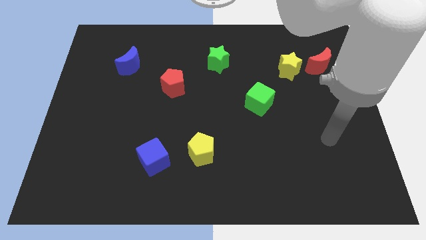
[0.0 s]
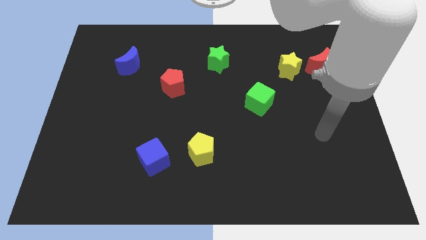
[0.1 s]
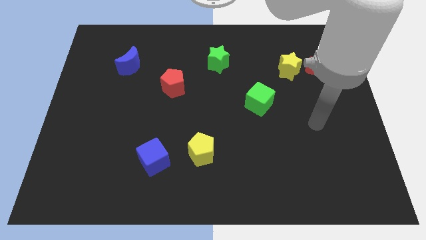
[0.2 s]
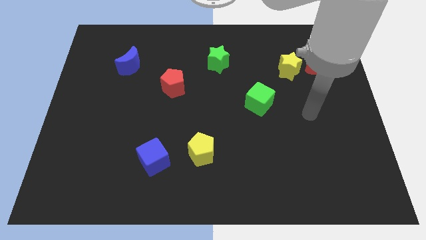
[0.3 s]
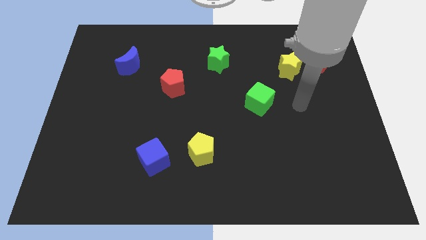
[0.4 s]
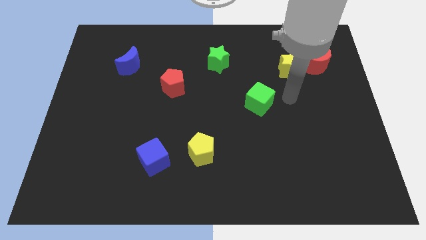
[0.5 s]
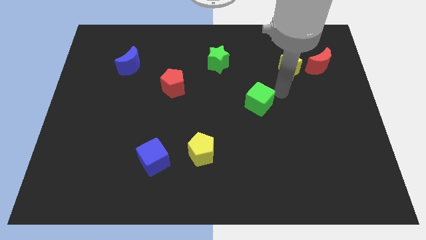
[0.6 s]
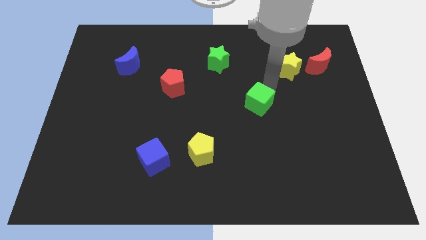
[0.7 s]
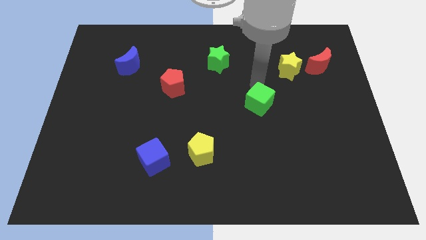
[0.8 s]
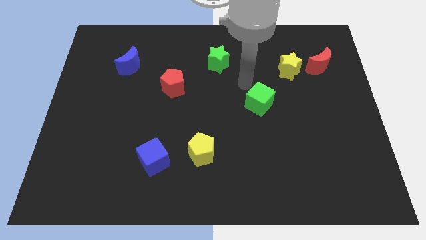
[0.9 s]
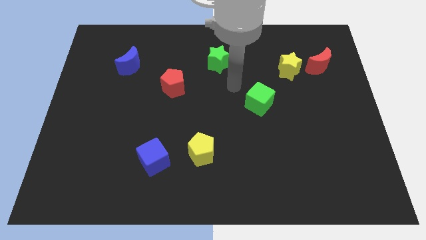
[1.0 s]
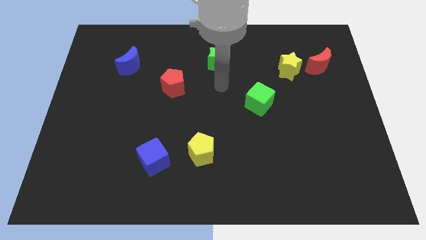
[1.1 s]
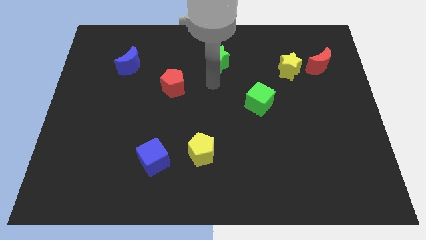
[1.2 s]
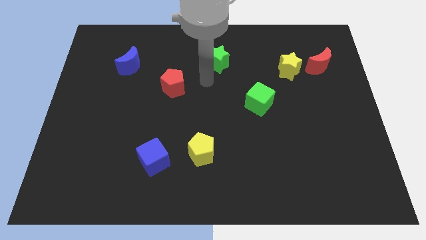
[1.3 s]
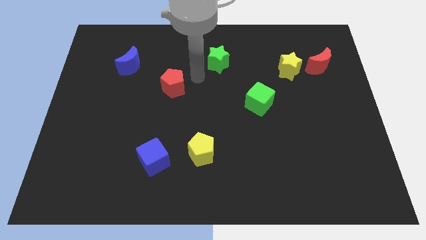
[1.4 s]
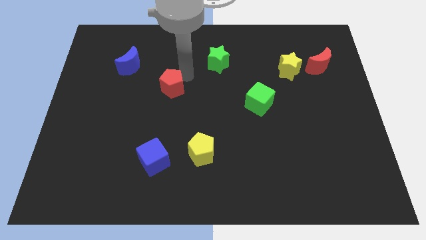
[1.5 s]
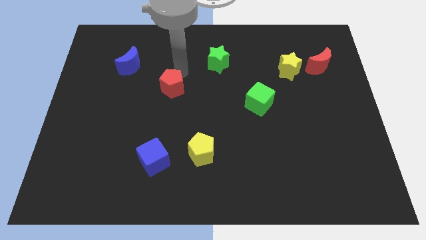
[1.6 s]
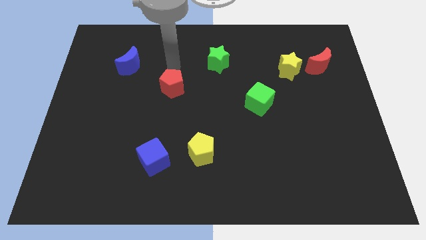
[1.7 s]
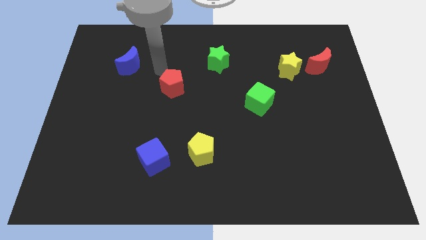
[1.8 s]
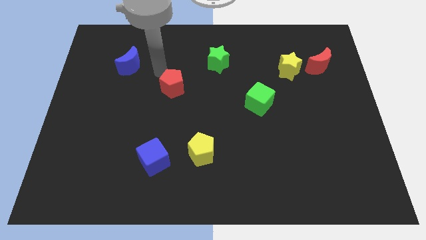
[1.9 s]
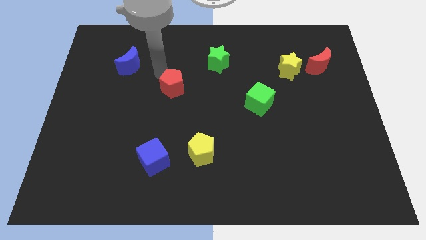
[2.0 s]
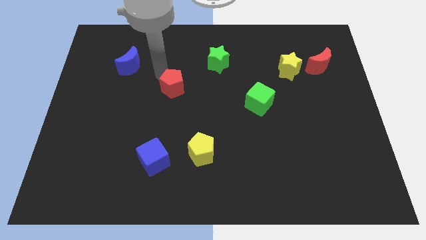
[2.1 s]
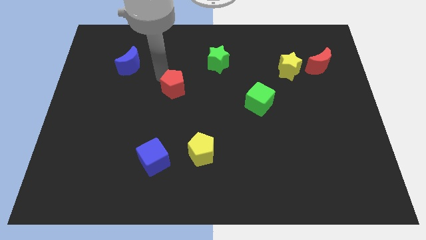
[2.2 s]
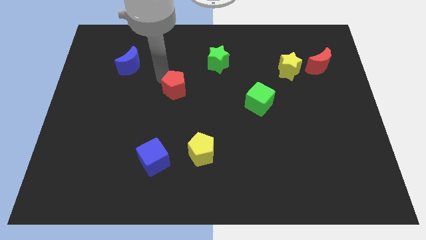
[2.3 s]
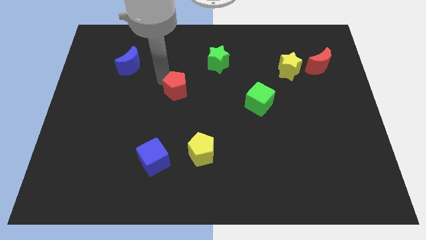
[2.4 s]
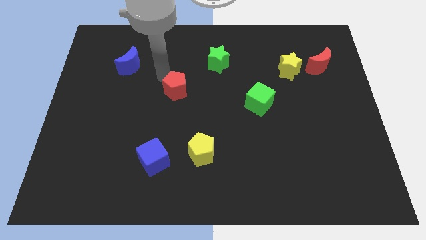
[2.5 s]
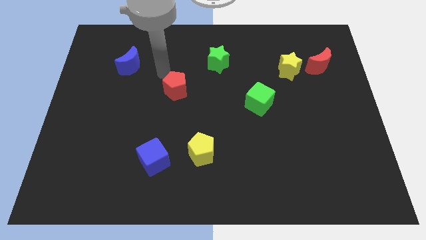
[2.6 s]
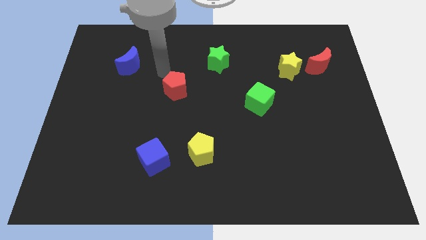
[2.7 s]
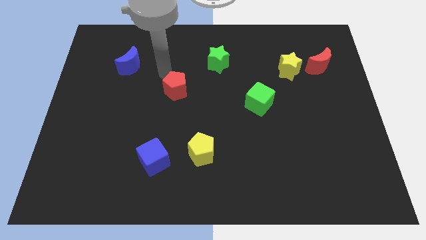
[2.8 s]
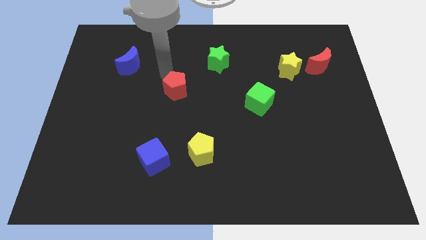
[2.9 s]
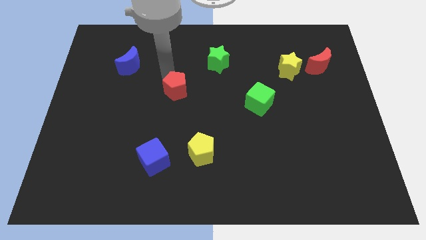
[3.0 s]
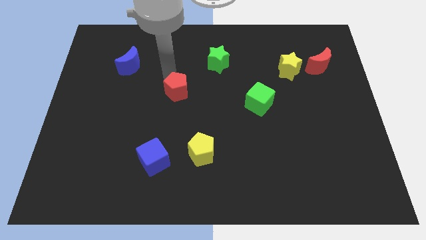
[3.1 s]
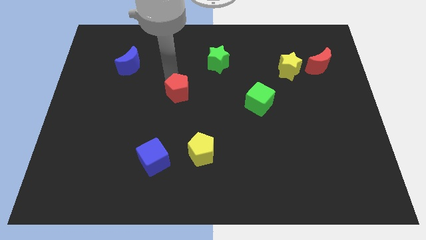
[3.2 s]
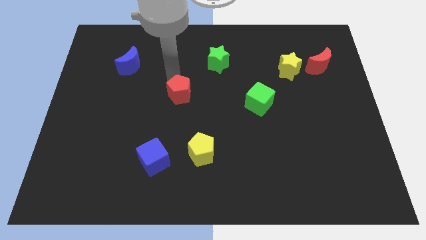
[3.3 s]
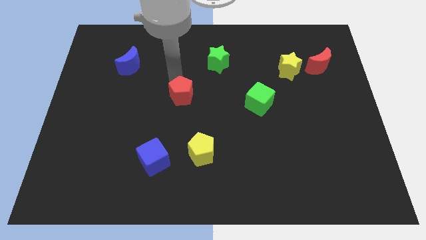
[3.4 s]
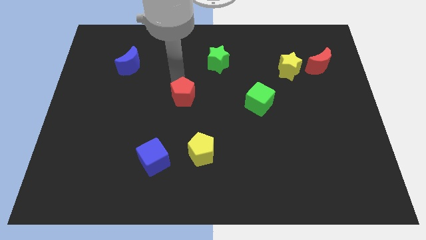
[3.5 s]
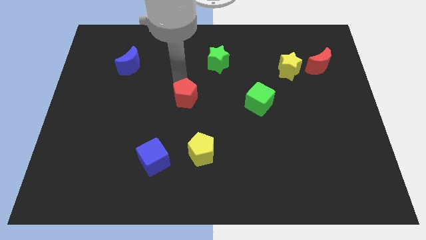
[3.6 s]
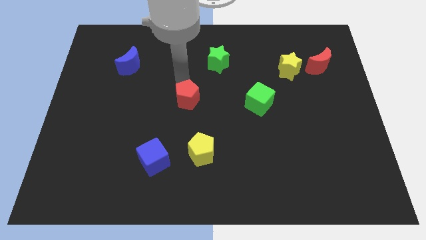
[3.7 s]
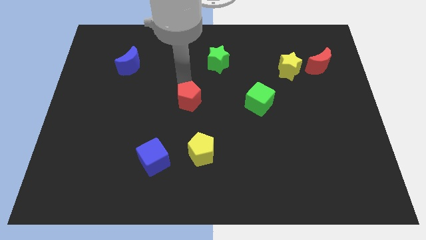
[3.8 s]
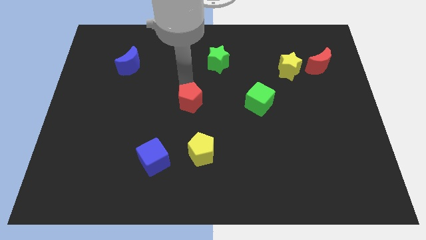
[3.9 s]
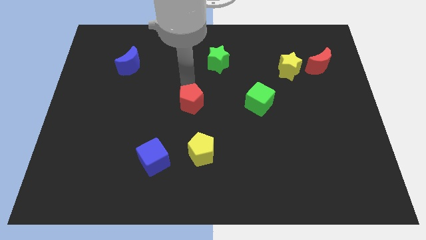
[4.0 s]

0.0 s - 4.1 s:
slightly push the red pentagon downwards and right

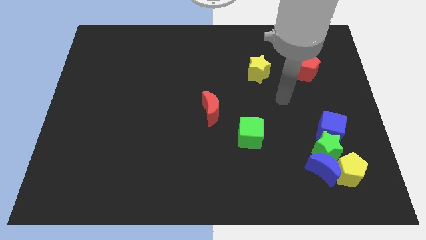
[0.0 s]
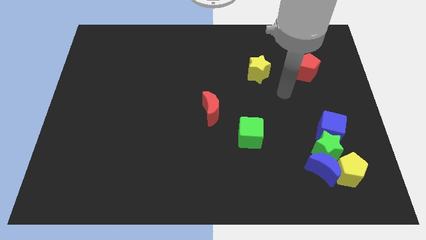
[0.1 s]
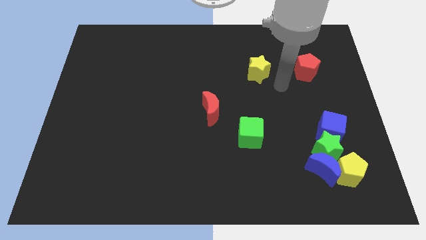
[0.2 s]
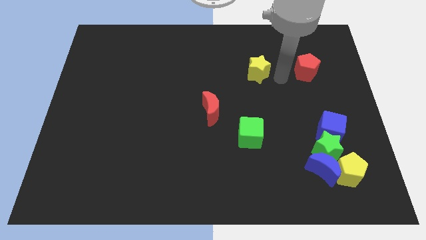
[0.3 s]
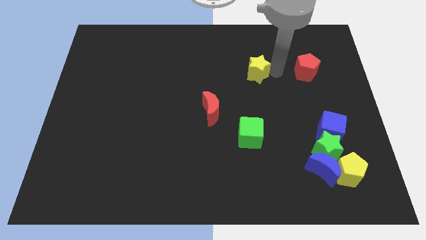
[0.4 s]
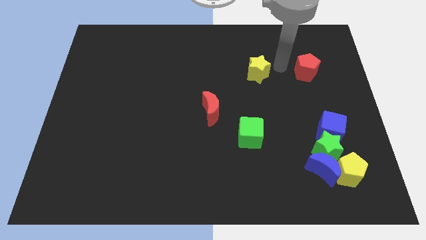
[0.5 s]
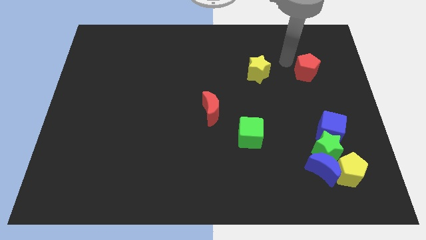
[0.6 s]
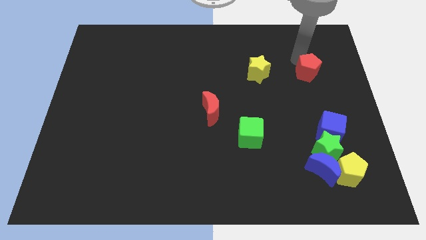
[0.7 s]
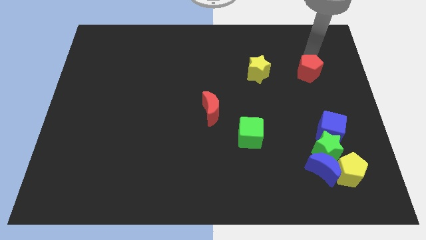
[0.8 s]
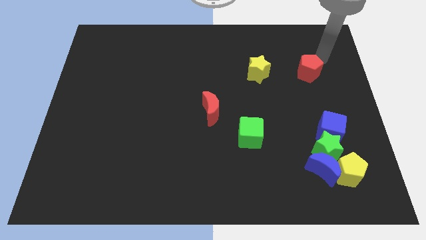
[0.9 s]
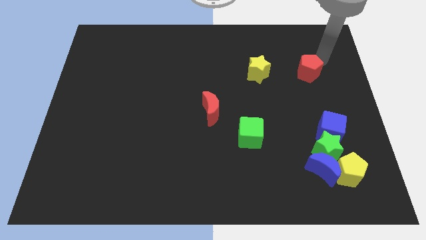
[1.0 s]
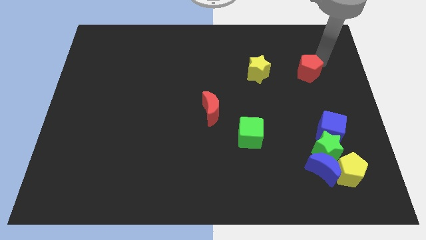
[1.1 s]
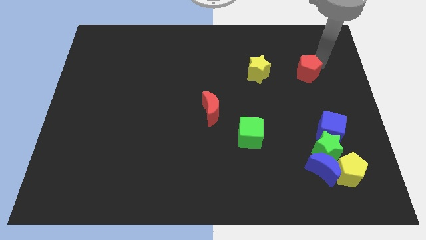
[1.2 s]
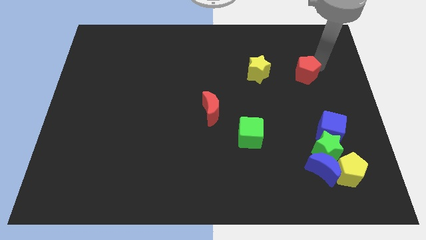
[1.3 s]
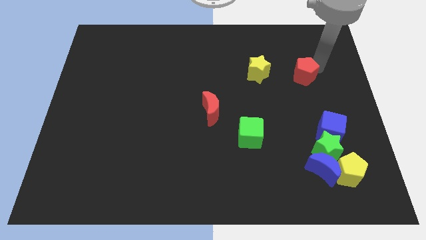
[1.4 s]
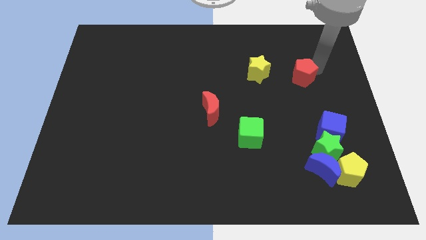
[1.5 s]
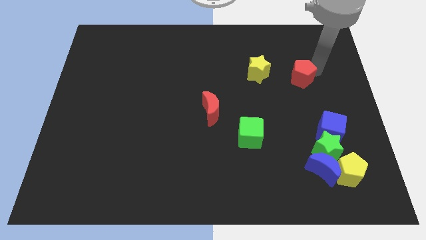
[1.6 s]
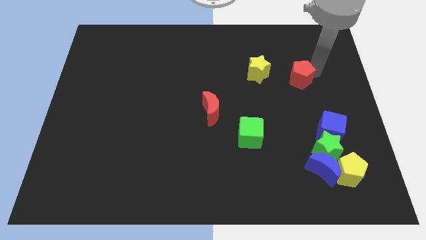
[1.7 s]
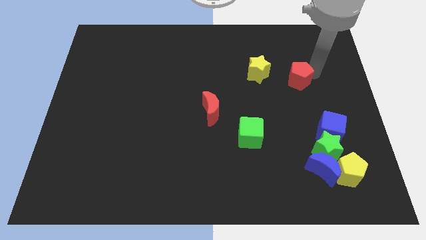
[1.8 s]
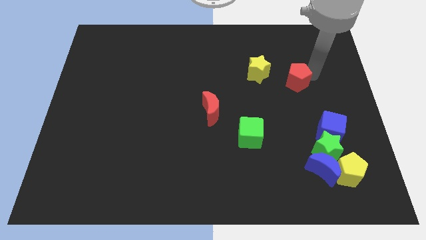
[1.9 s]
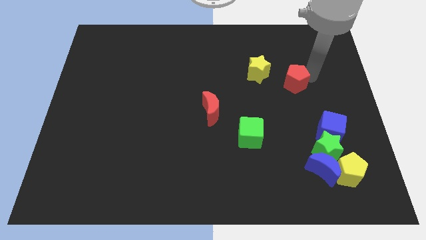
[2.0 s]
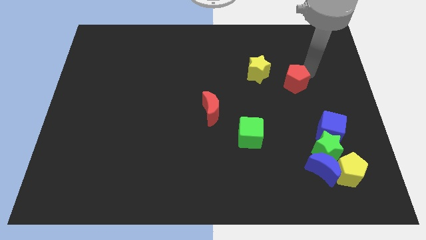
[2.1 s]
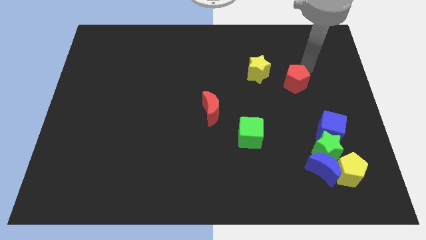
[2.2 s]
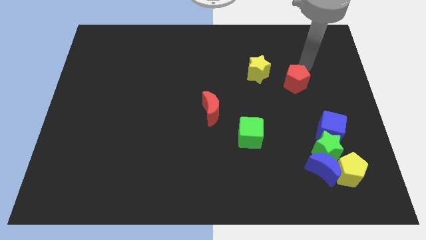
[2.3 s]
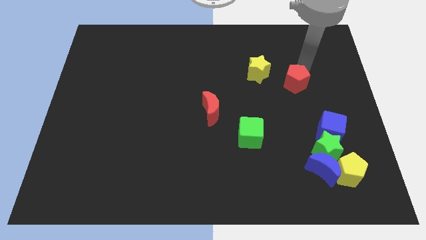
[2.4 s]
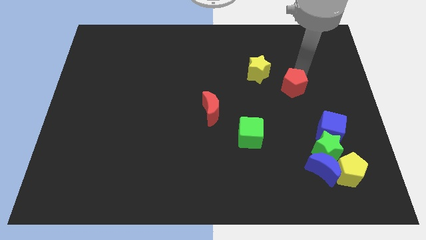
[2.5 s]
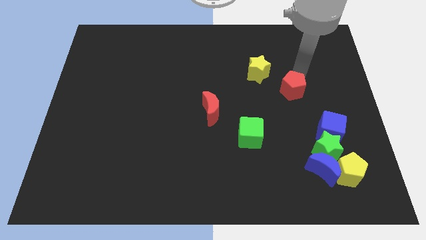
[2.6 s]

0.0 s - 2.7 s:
slide the red pentagon down and to the left somewhat

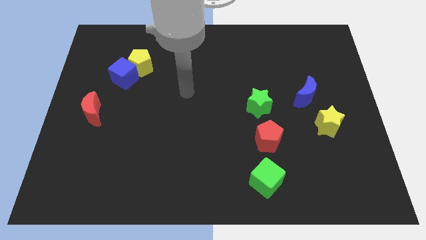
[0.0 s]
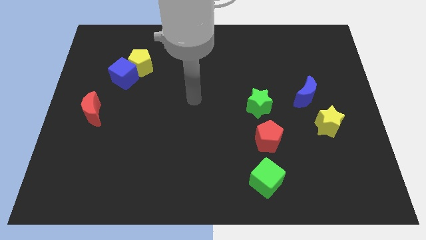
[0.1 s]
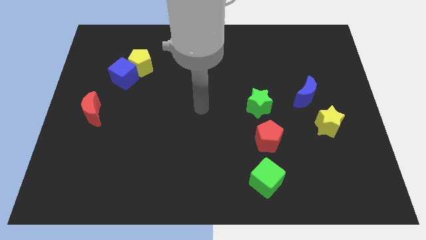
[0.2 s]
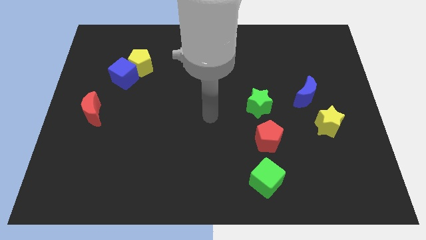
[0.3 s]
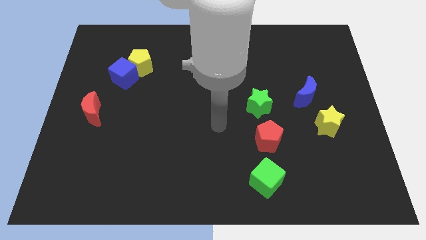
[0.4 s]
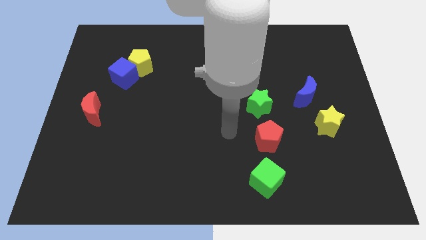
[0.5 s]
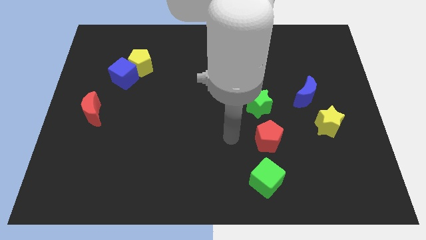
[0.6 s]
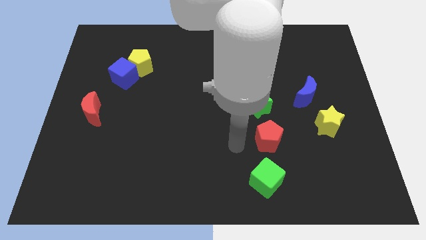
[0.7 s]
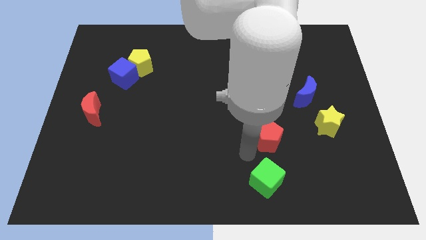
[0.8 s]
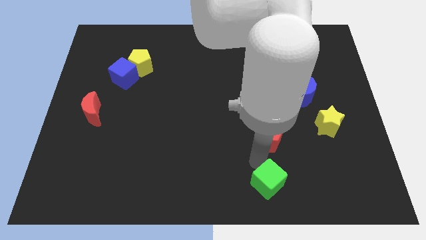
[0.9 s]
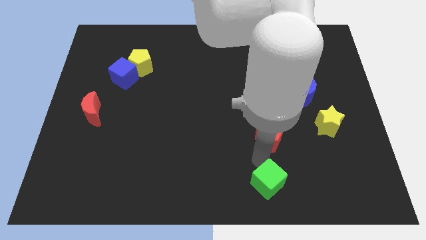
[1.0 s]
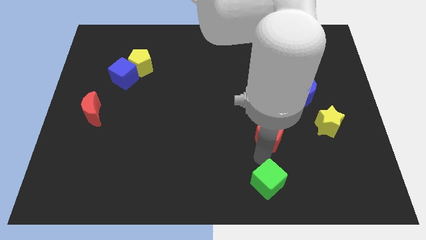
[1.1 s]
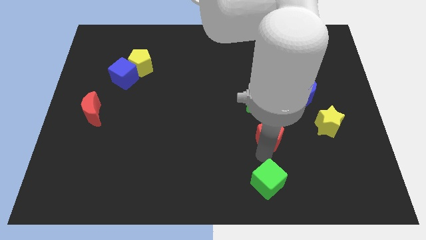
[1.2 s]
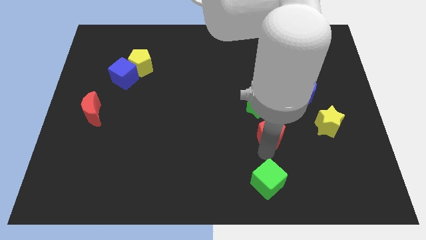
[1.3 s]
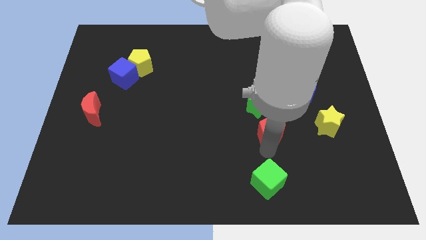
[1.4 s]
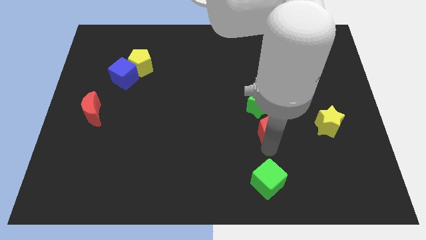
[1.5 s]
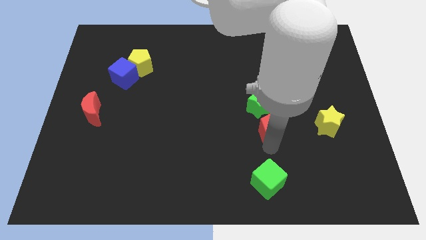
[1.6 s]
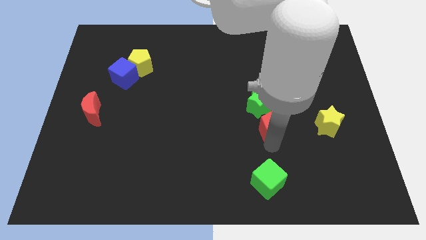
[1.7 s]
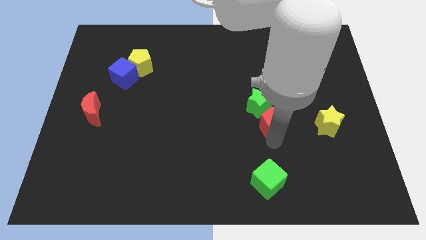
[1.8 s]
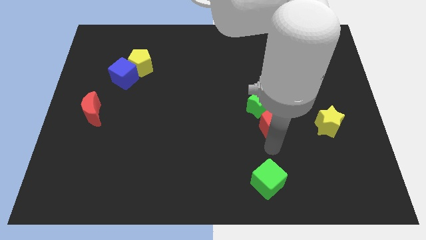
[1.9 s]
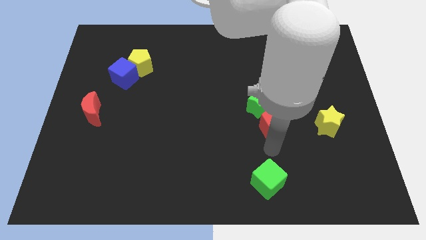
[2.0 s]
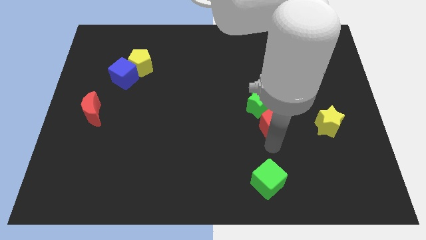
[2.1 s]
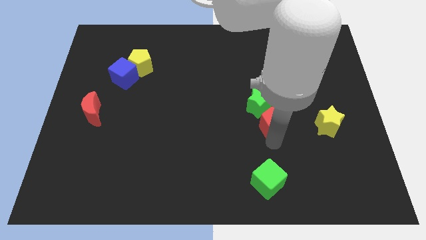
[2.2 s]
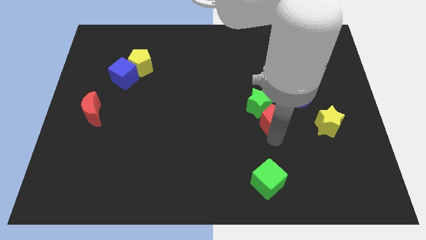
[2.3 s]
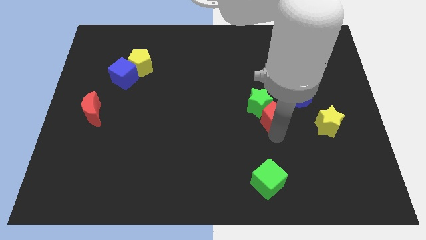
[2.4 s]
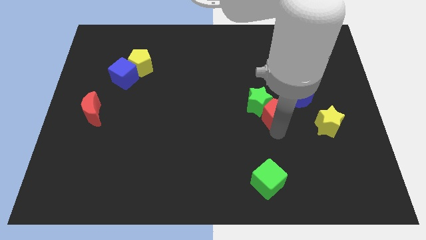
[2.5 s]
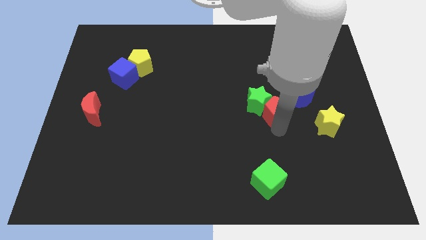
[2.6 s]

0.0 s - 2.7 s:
move the red pentagon upwards a little bit
